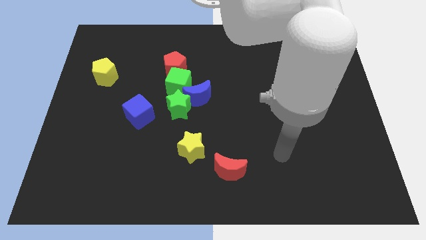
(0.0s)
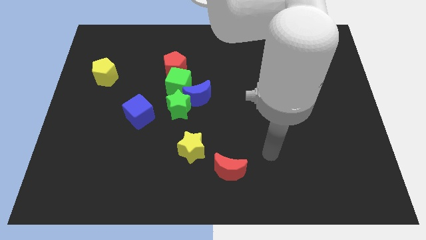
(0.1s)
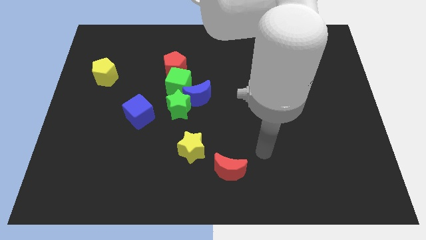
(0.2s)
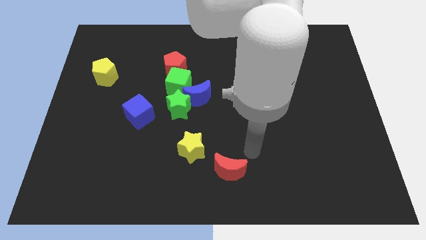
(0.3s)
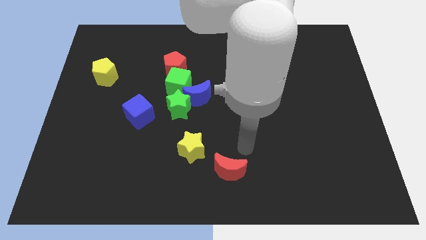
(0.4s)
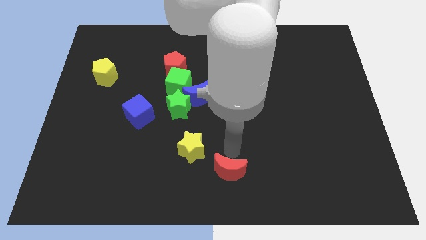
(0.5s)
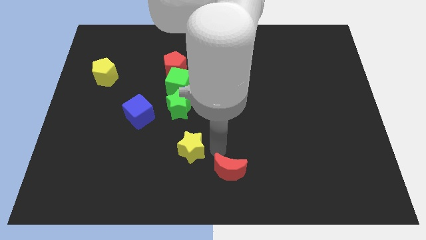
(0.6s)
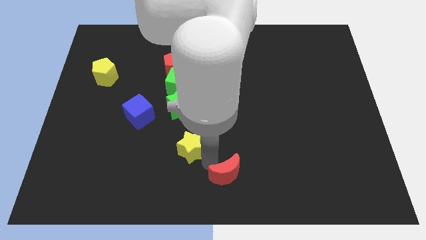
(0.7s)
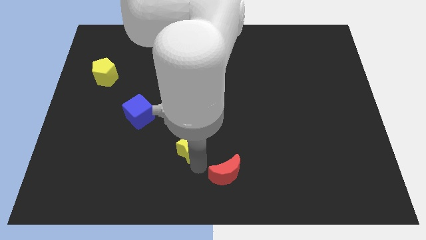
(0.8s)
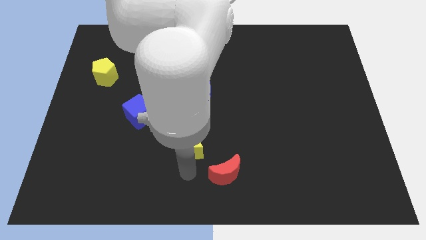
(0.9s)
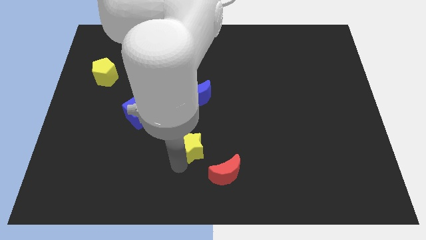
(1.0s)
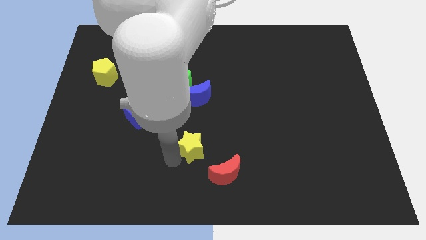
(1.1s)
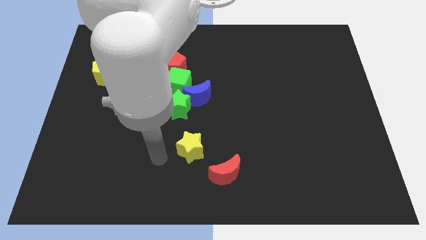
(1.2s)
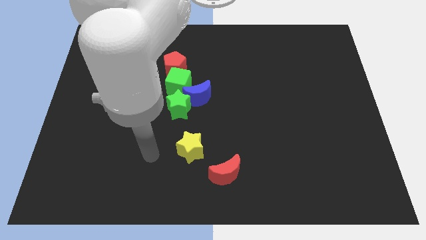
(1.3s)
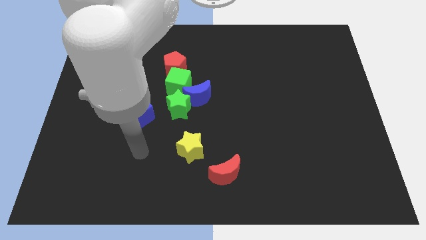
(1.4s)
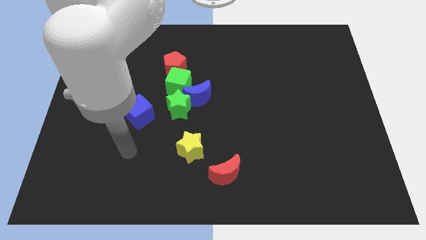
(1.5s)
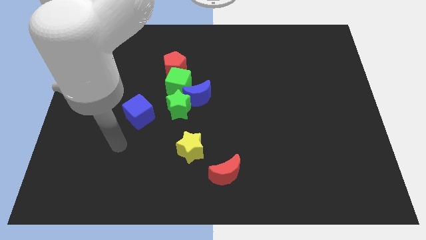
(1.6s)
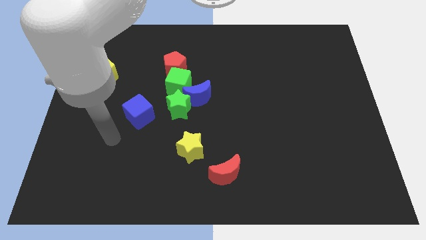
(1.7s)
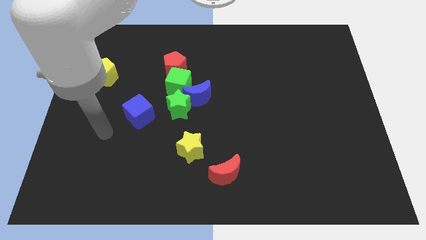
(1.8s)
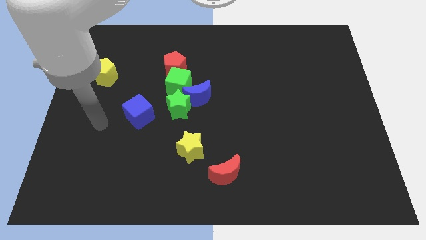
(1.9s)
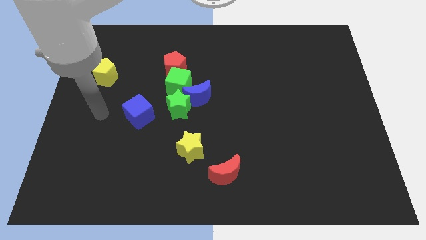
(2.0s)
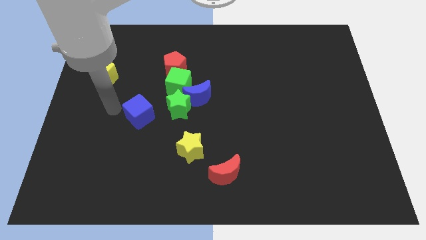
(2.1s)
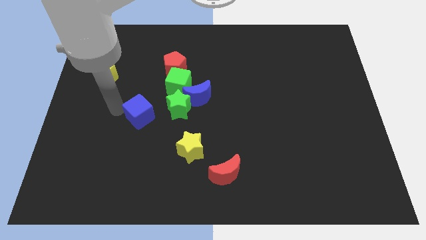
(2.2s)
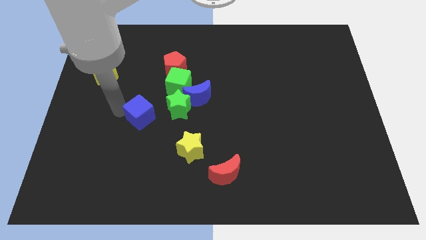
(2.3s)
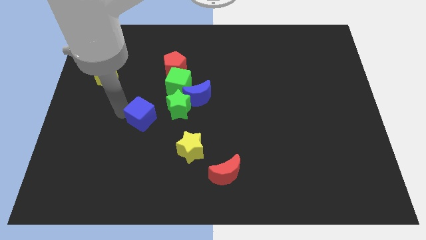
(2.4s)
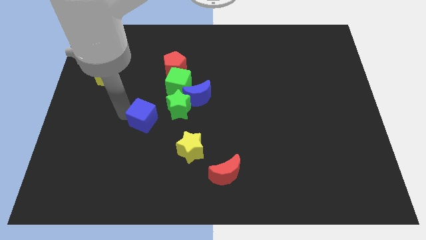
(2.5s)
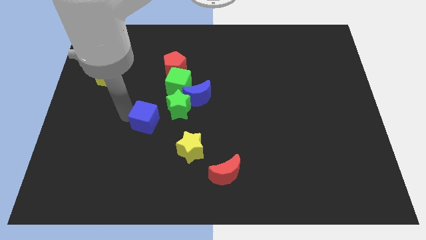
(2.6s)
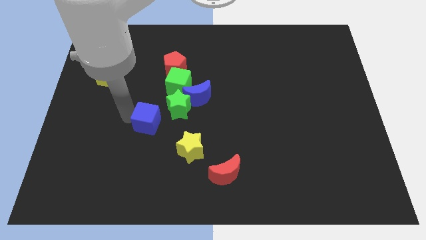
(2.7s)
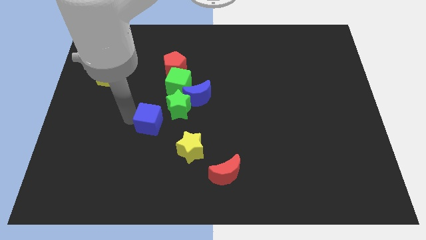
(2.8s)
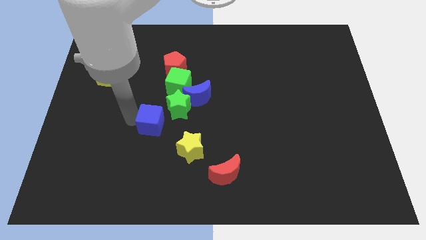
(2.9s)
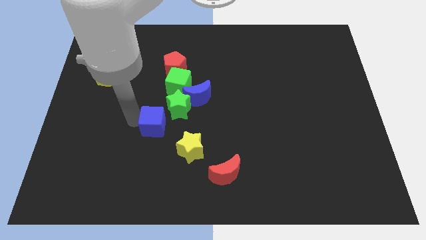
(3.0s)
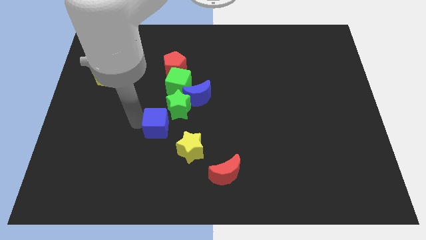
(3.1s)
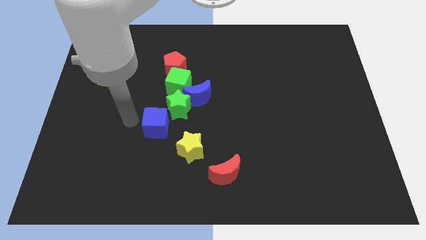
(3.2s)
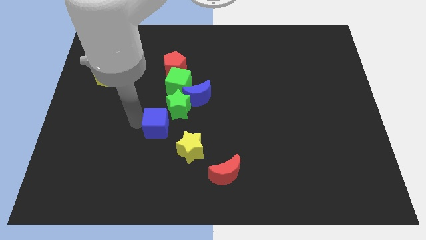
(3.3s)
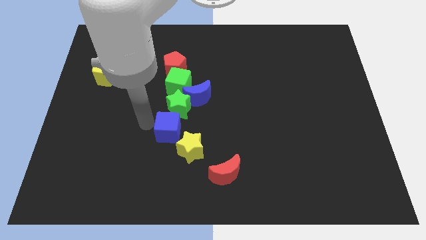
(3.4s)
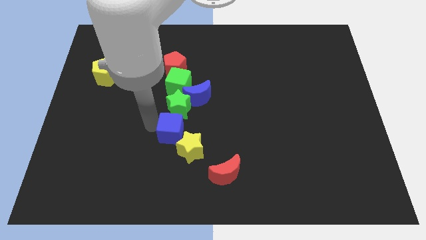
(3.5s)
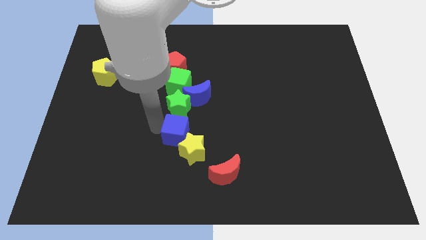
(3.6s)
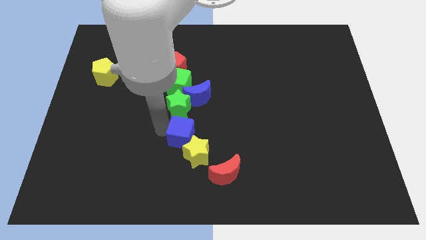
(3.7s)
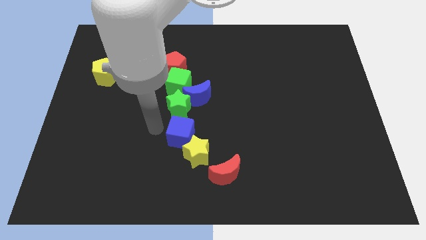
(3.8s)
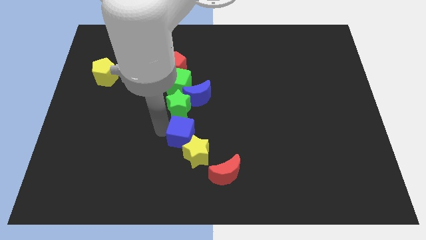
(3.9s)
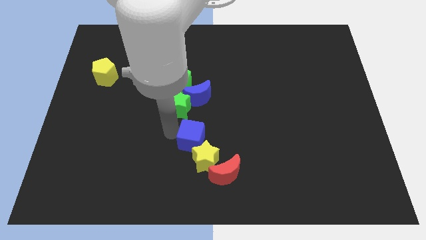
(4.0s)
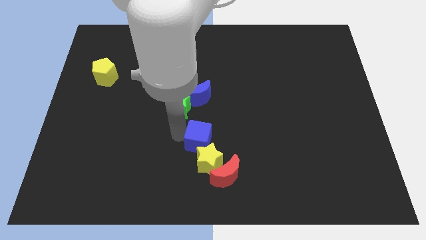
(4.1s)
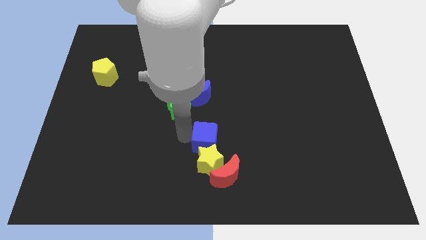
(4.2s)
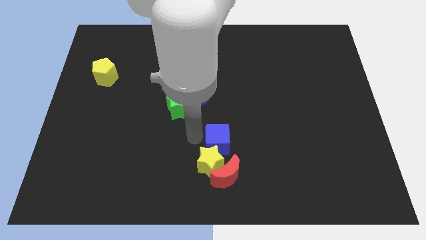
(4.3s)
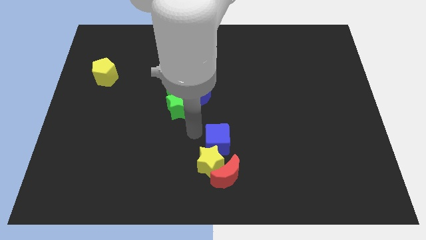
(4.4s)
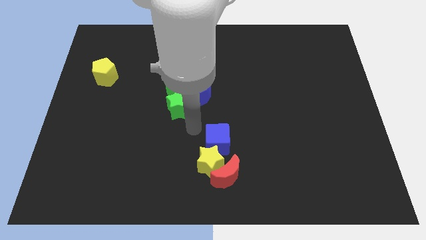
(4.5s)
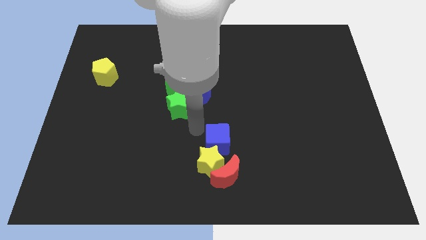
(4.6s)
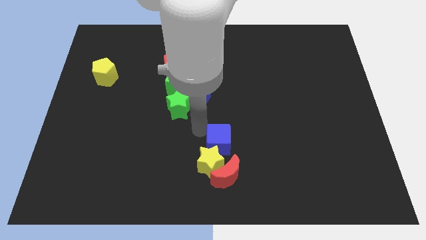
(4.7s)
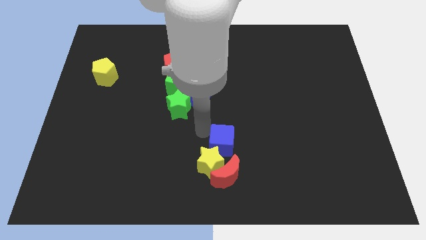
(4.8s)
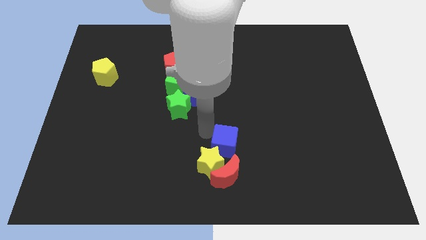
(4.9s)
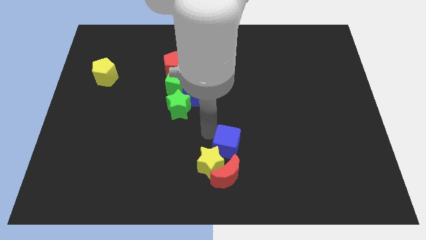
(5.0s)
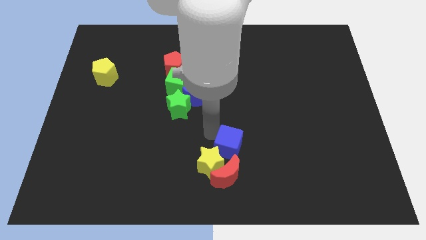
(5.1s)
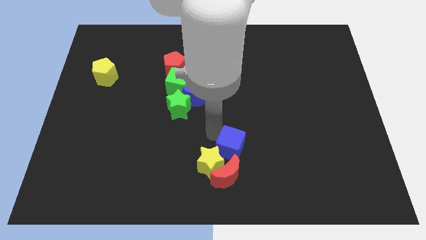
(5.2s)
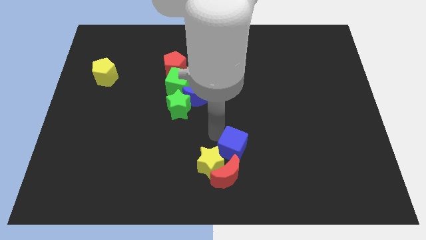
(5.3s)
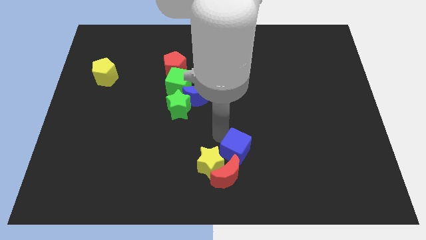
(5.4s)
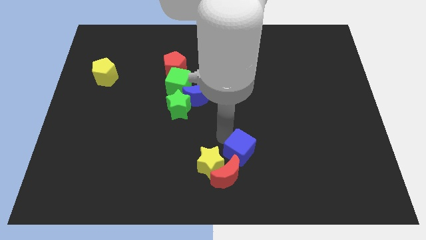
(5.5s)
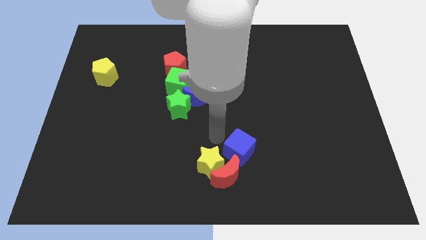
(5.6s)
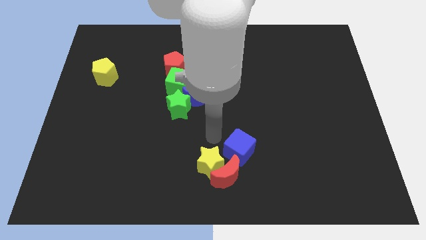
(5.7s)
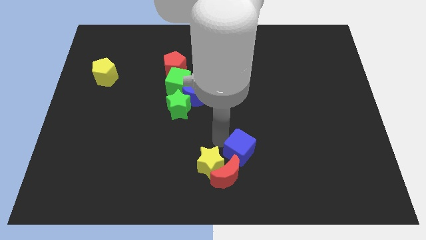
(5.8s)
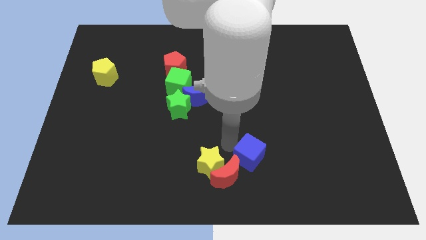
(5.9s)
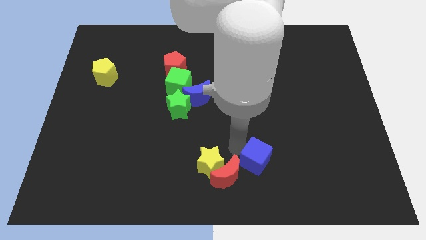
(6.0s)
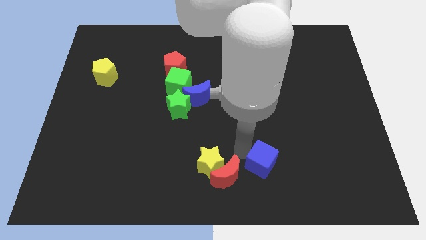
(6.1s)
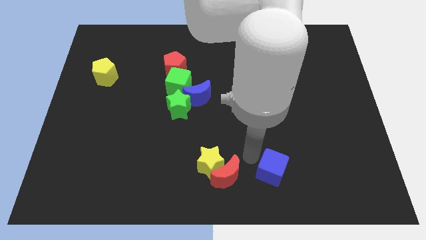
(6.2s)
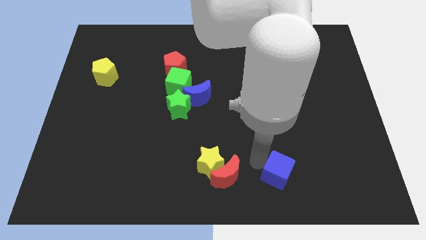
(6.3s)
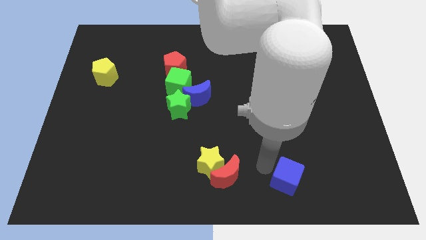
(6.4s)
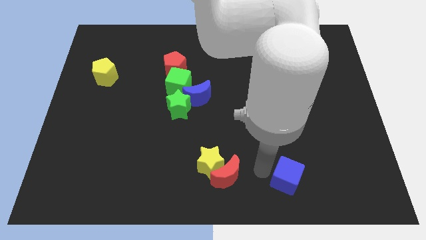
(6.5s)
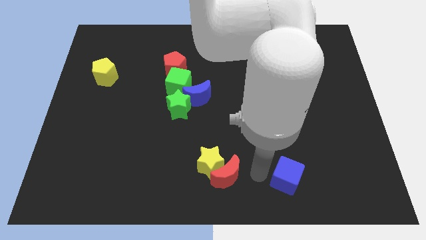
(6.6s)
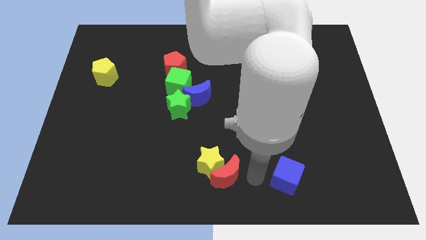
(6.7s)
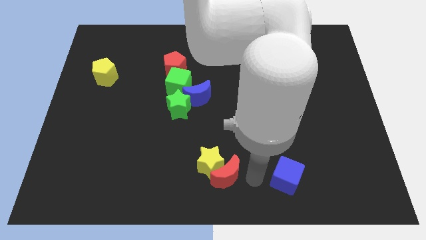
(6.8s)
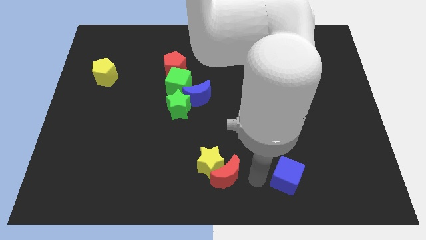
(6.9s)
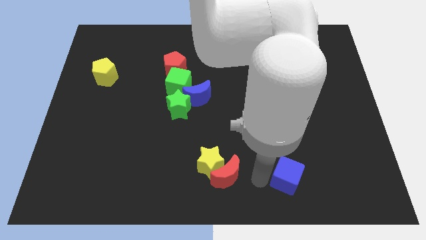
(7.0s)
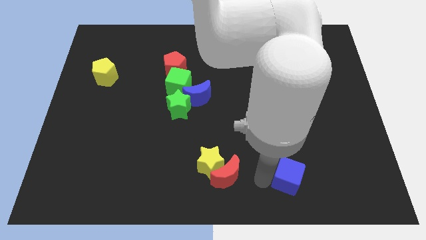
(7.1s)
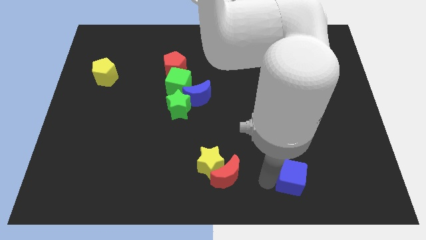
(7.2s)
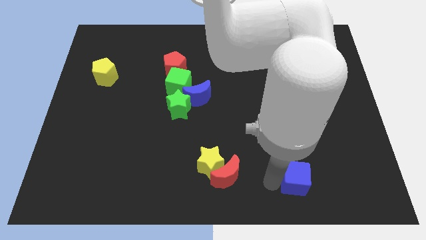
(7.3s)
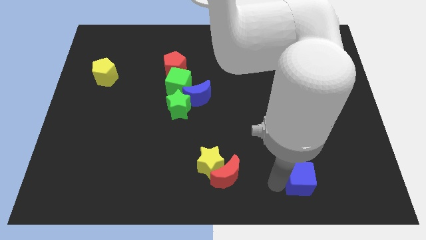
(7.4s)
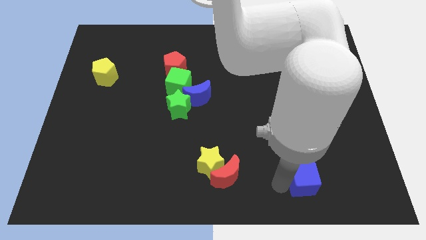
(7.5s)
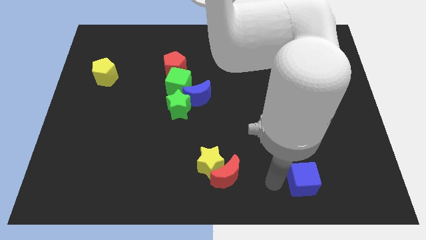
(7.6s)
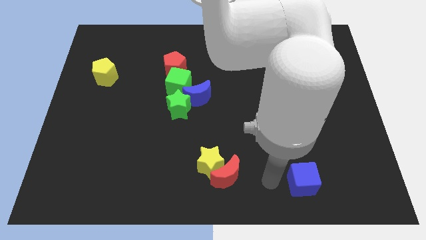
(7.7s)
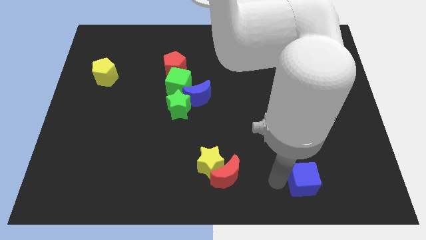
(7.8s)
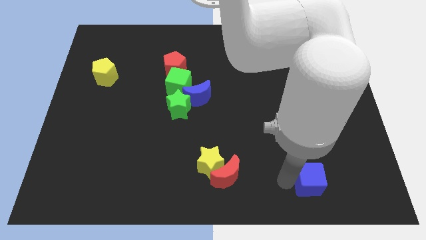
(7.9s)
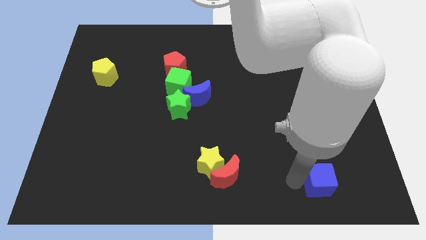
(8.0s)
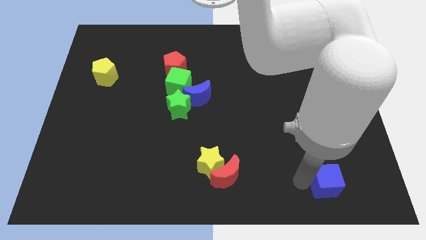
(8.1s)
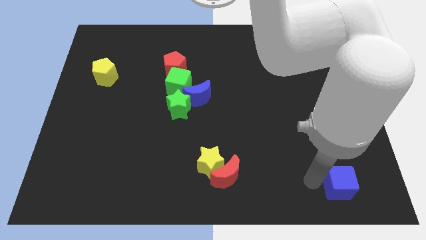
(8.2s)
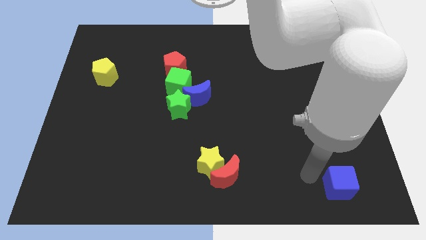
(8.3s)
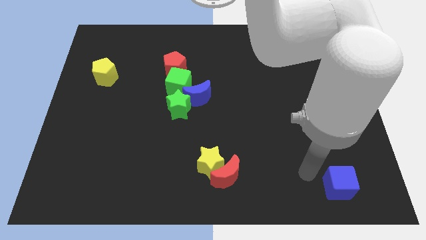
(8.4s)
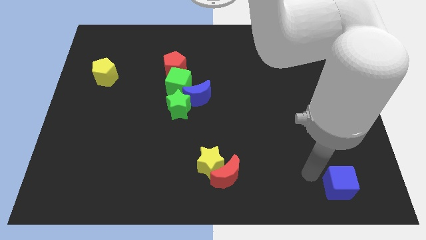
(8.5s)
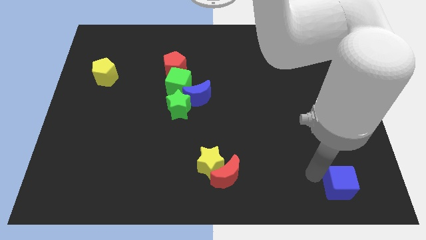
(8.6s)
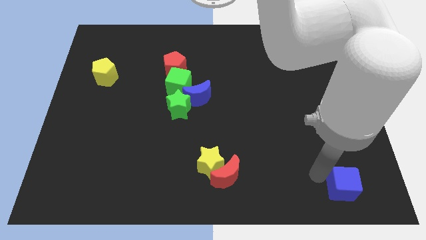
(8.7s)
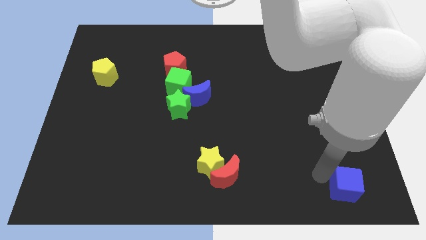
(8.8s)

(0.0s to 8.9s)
move the blue cube to the lower right corner
